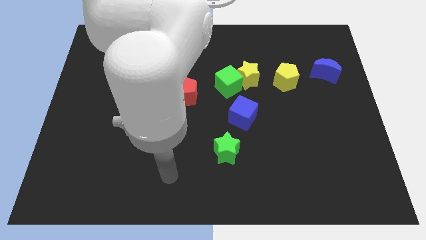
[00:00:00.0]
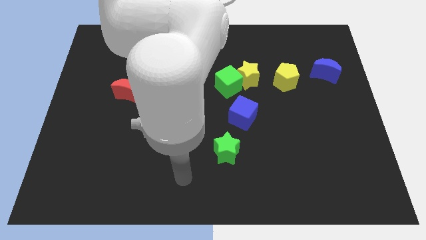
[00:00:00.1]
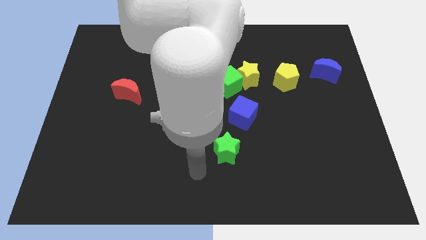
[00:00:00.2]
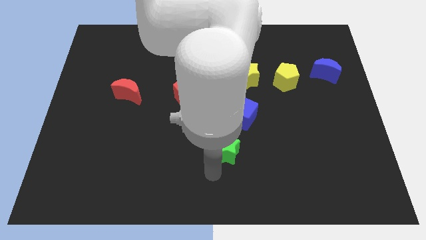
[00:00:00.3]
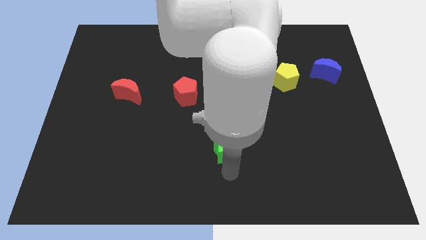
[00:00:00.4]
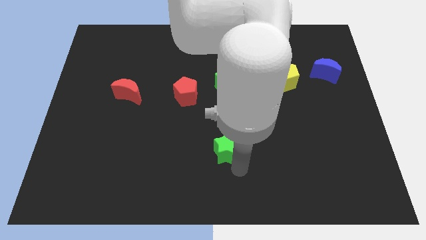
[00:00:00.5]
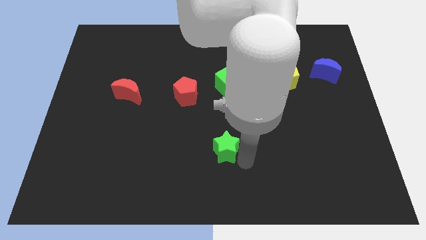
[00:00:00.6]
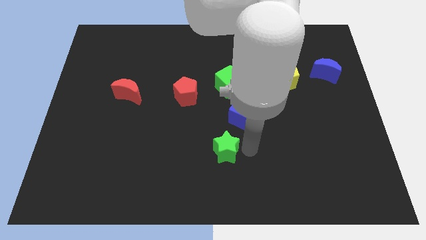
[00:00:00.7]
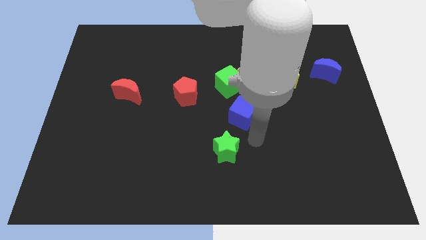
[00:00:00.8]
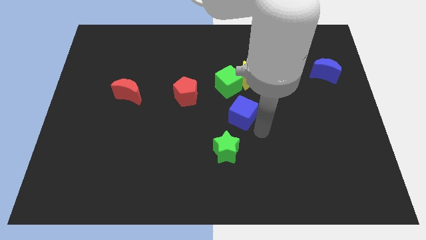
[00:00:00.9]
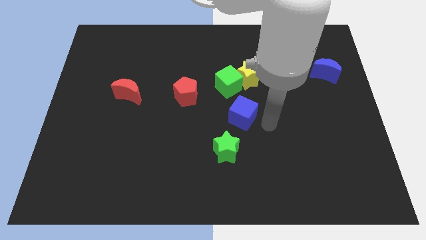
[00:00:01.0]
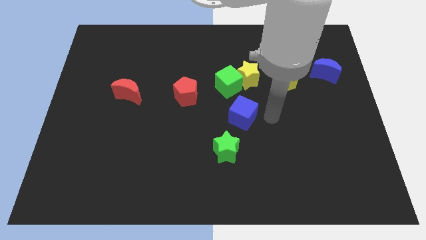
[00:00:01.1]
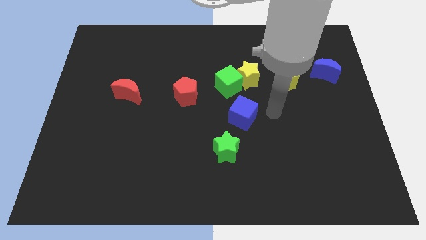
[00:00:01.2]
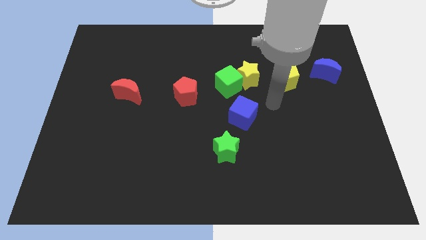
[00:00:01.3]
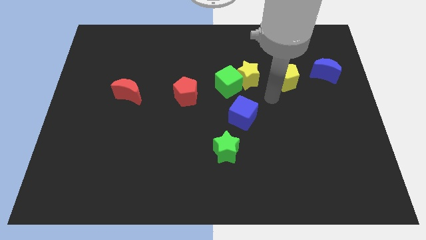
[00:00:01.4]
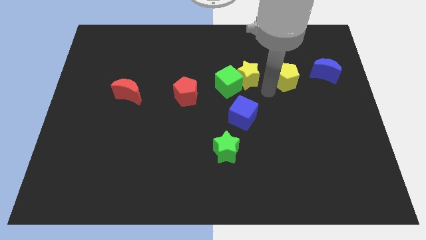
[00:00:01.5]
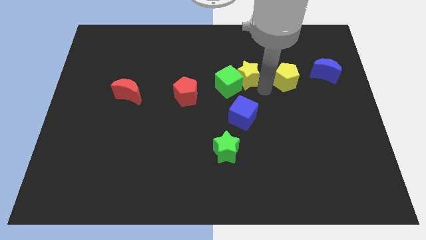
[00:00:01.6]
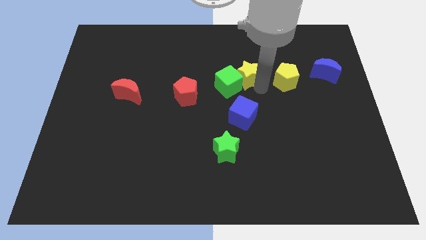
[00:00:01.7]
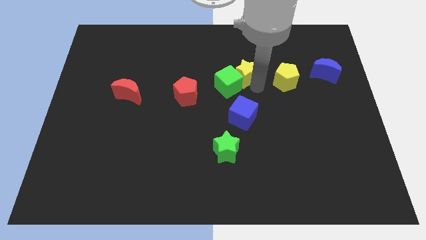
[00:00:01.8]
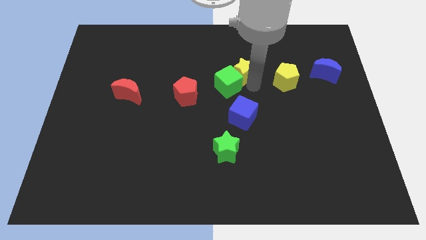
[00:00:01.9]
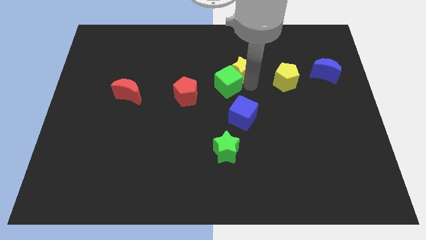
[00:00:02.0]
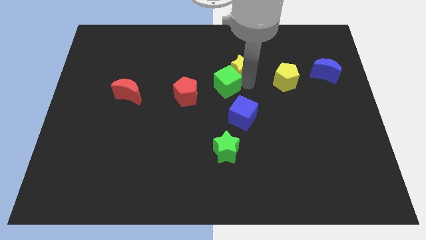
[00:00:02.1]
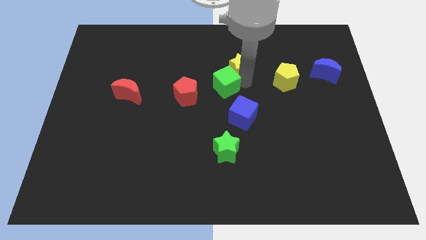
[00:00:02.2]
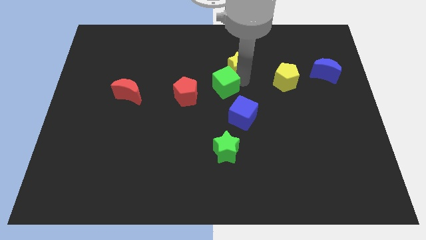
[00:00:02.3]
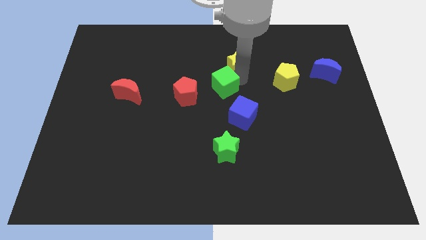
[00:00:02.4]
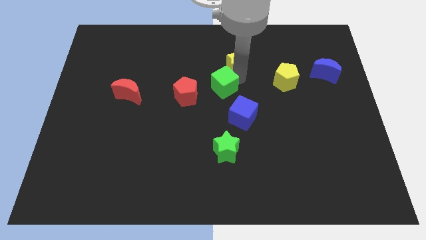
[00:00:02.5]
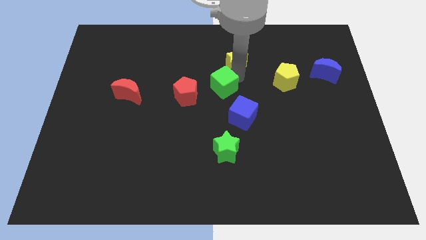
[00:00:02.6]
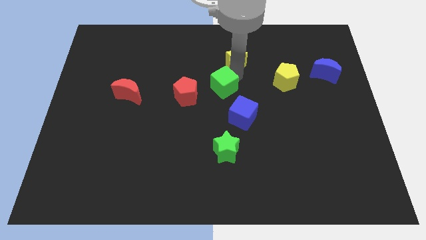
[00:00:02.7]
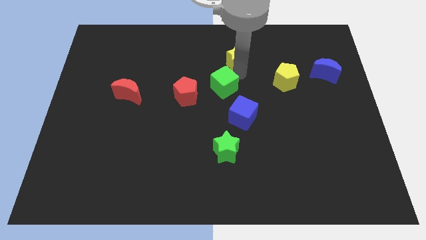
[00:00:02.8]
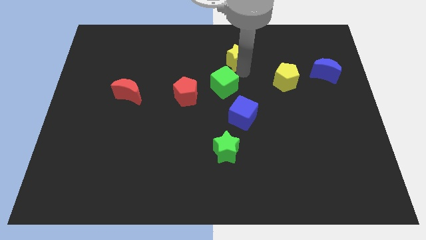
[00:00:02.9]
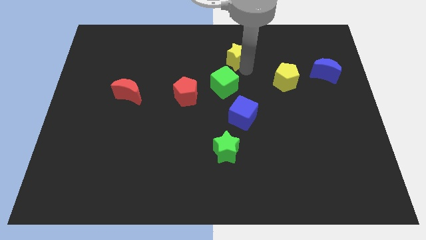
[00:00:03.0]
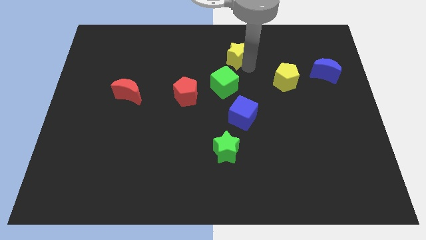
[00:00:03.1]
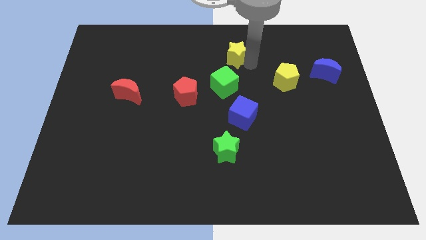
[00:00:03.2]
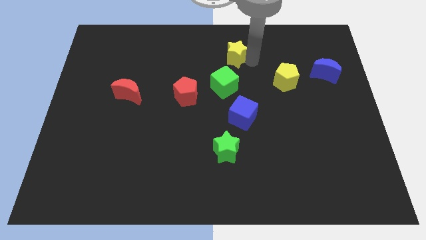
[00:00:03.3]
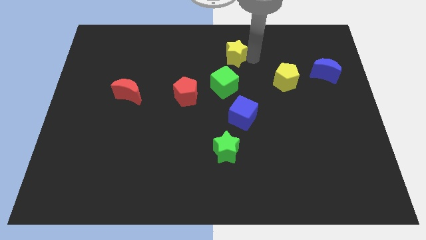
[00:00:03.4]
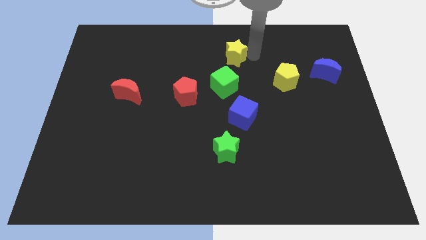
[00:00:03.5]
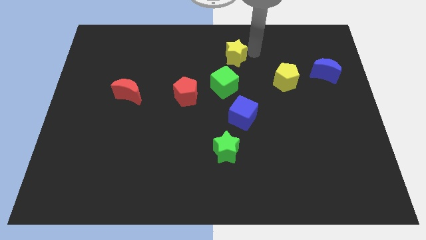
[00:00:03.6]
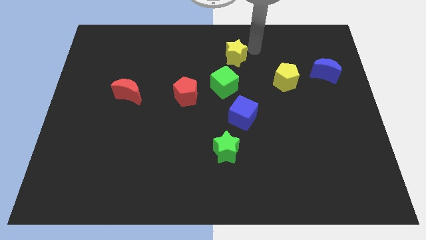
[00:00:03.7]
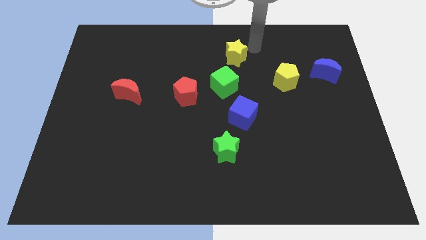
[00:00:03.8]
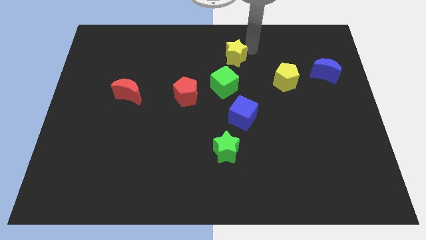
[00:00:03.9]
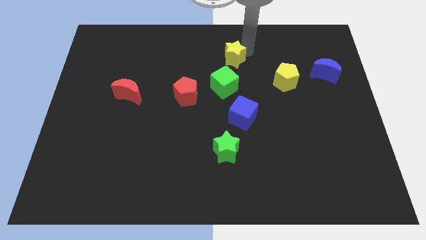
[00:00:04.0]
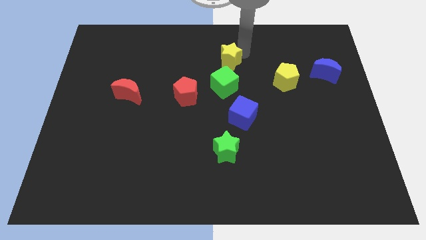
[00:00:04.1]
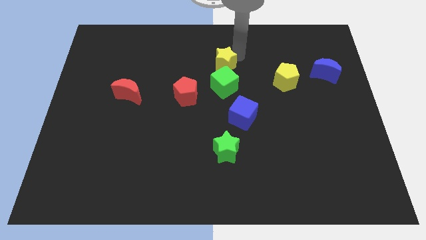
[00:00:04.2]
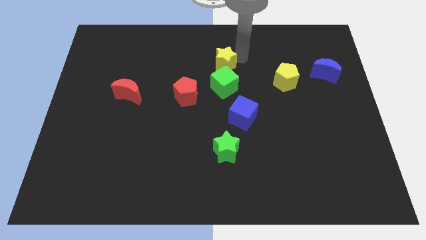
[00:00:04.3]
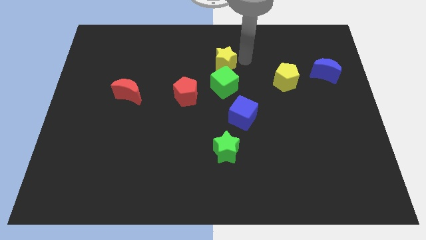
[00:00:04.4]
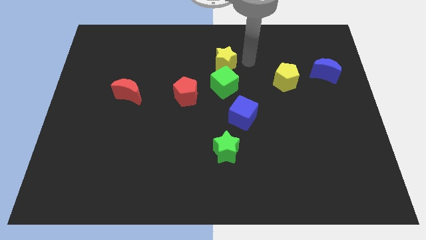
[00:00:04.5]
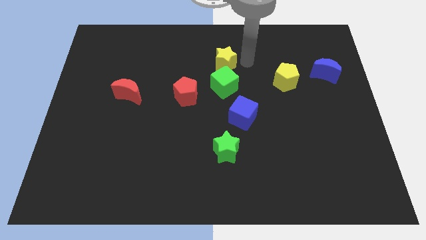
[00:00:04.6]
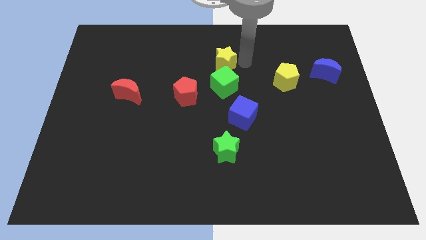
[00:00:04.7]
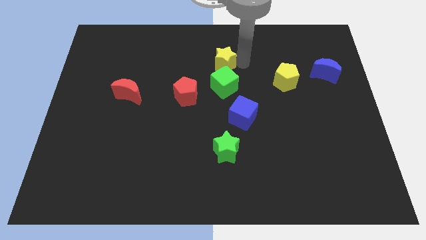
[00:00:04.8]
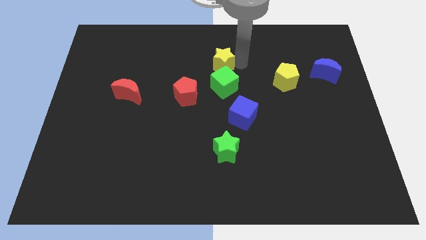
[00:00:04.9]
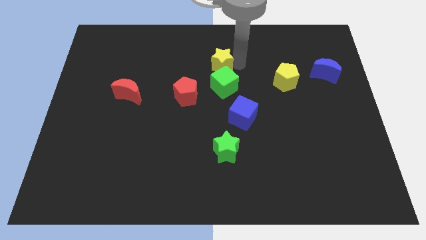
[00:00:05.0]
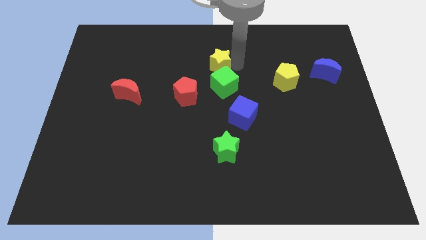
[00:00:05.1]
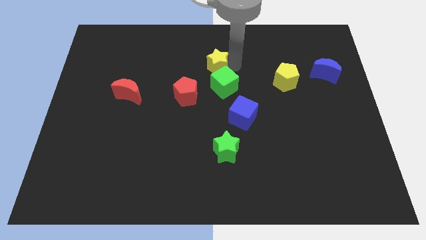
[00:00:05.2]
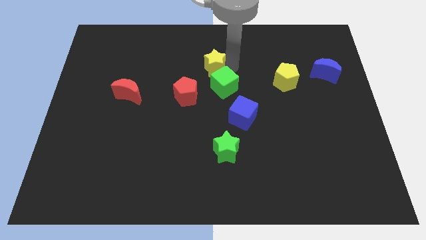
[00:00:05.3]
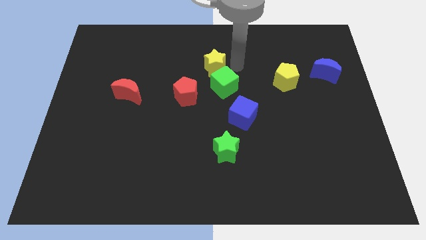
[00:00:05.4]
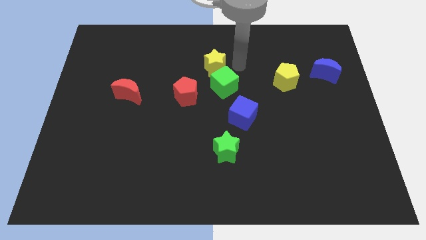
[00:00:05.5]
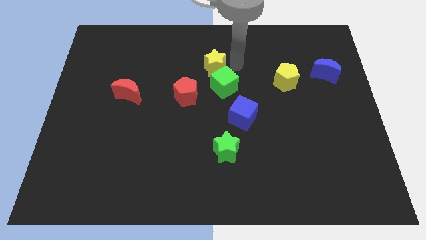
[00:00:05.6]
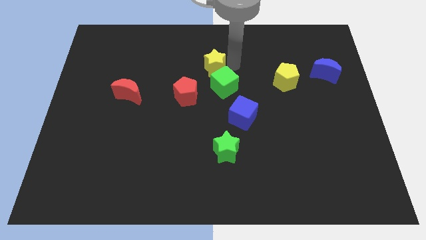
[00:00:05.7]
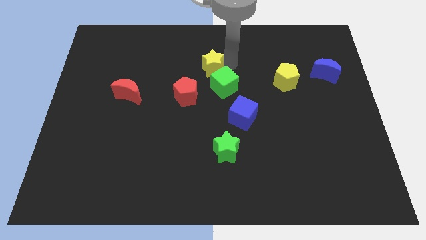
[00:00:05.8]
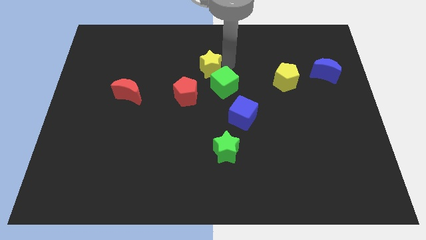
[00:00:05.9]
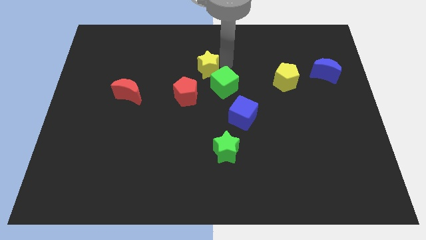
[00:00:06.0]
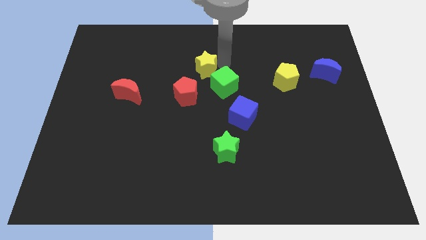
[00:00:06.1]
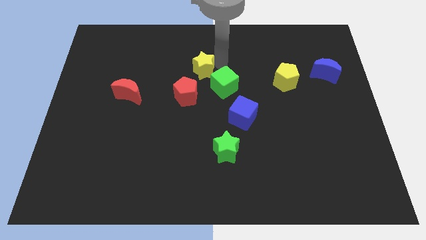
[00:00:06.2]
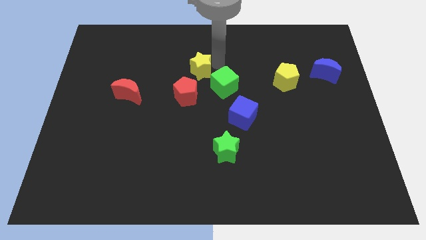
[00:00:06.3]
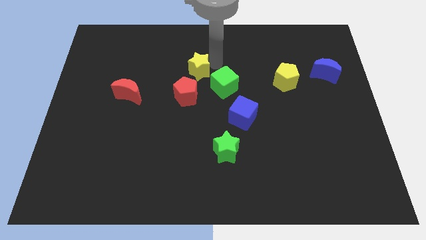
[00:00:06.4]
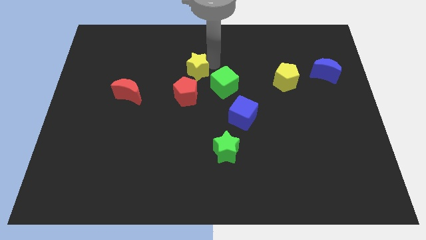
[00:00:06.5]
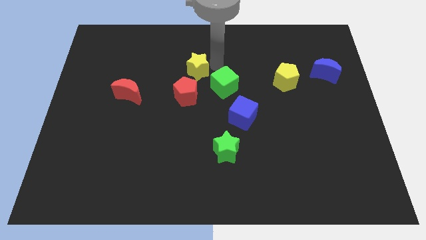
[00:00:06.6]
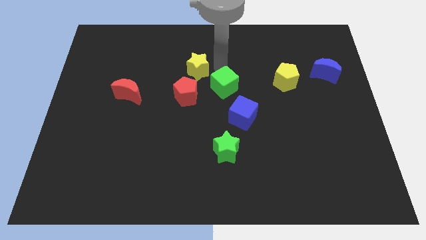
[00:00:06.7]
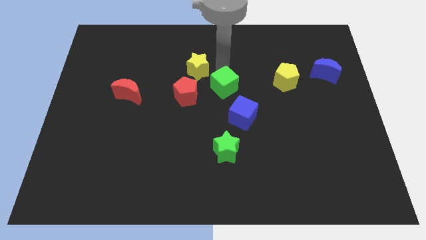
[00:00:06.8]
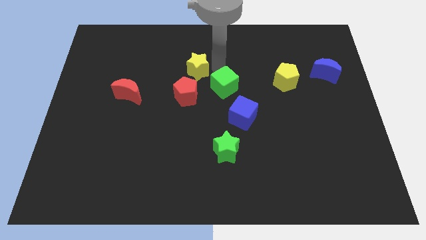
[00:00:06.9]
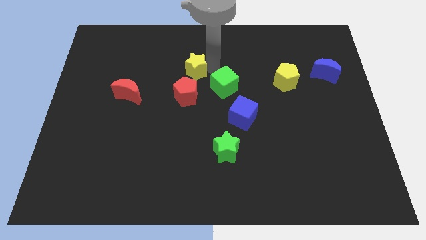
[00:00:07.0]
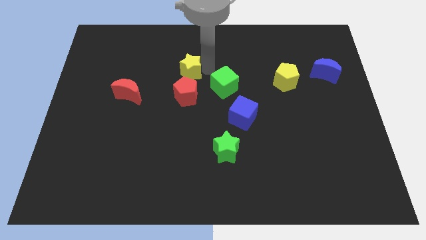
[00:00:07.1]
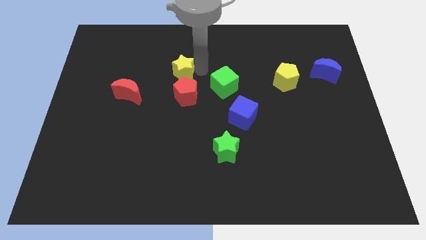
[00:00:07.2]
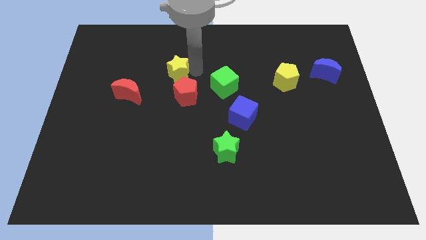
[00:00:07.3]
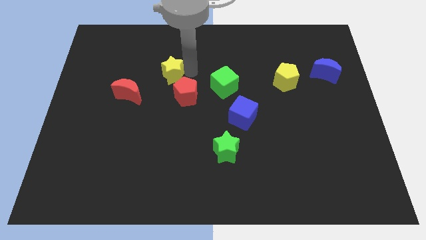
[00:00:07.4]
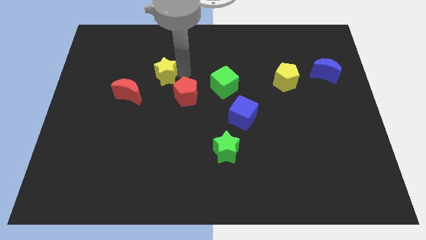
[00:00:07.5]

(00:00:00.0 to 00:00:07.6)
move the yellow star to the left

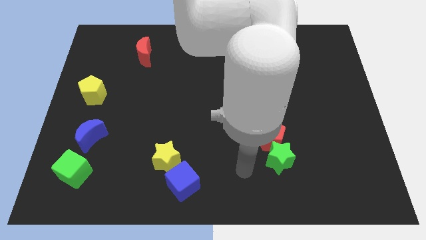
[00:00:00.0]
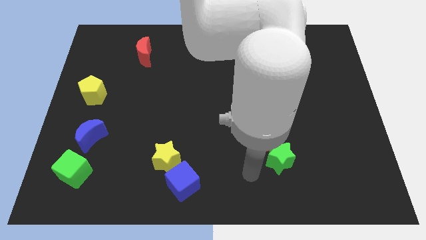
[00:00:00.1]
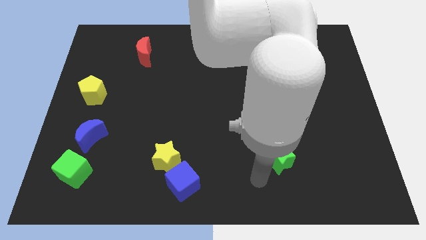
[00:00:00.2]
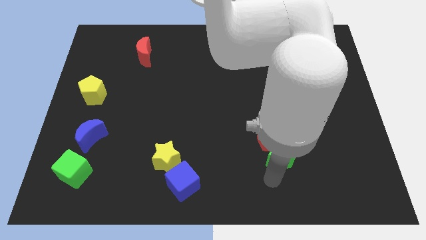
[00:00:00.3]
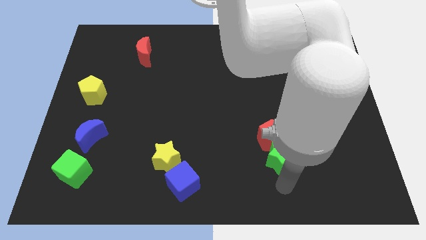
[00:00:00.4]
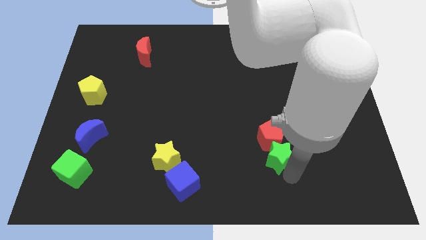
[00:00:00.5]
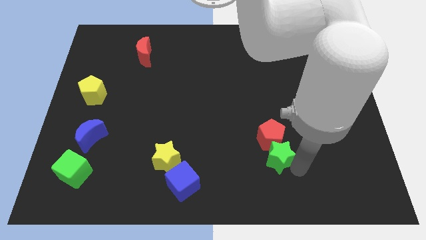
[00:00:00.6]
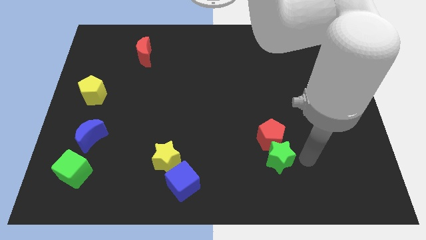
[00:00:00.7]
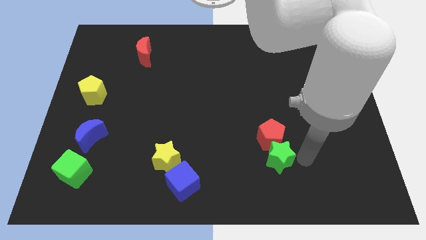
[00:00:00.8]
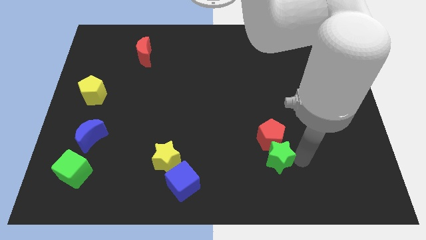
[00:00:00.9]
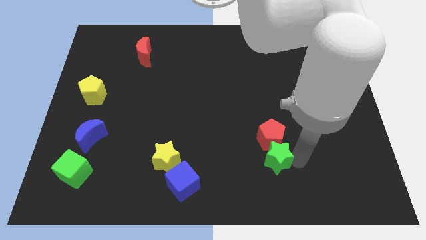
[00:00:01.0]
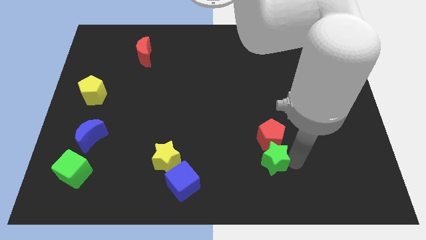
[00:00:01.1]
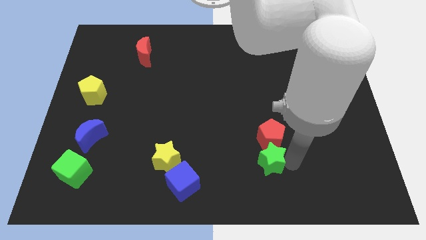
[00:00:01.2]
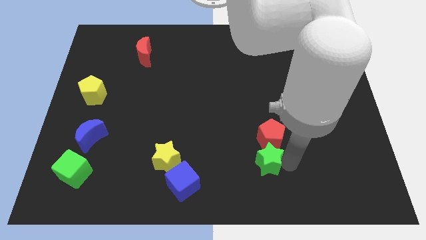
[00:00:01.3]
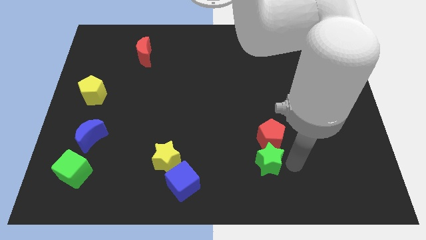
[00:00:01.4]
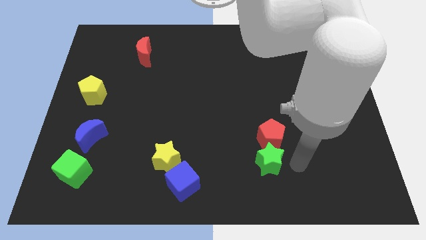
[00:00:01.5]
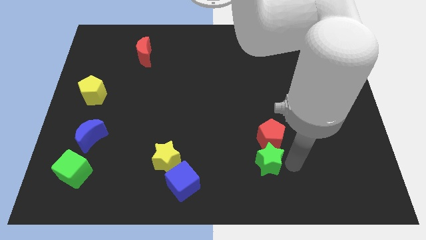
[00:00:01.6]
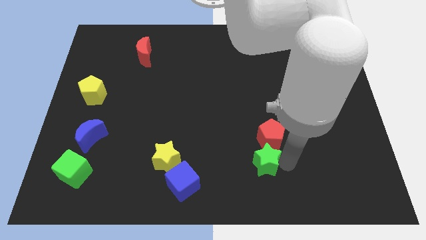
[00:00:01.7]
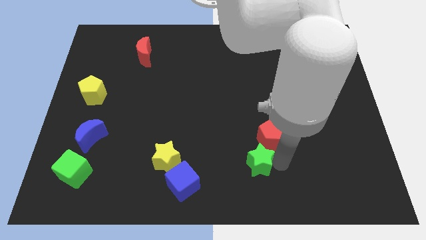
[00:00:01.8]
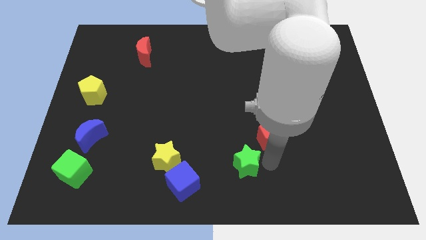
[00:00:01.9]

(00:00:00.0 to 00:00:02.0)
move the green star a bit to the left
